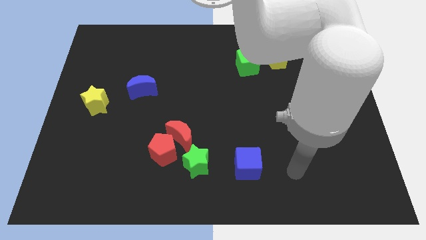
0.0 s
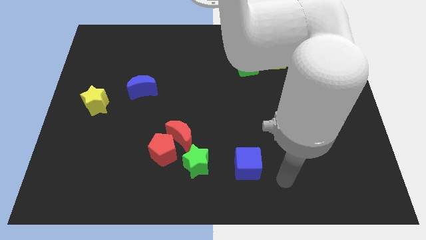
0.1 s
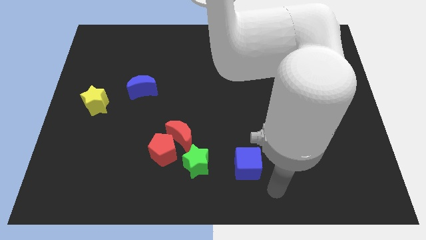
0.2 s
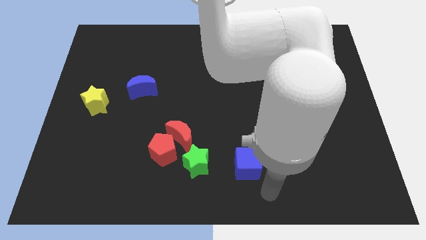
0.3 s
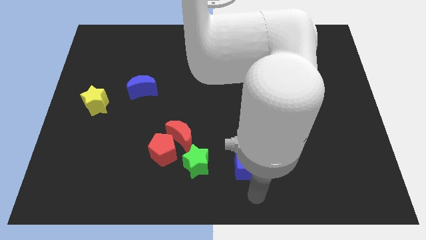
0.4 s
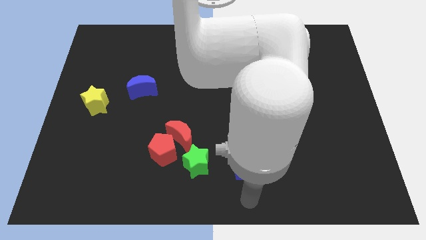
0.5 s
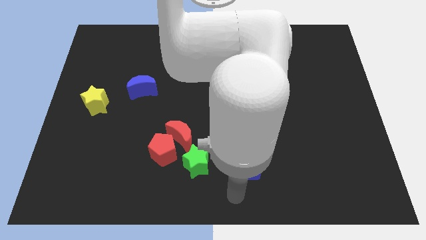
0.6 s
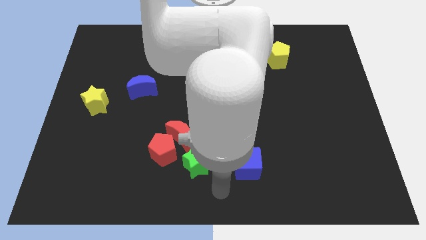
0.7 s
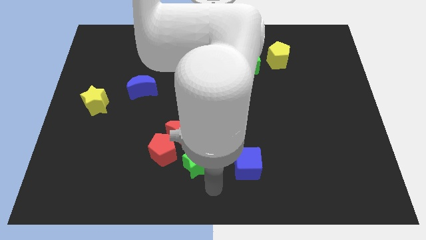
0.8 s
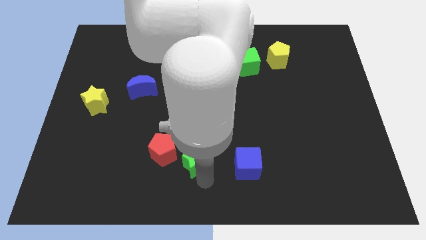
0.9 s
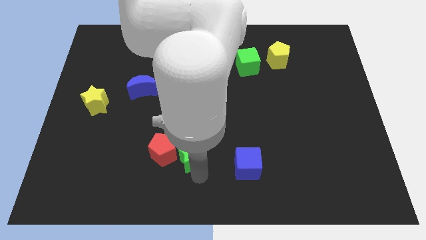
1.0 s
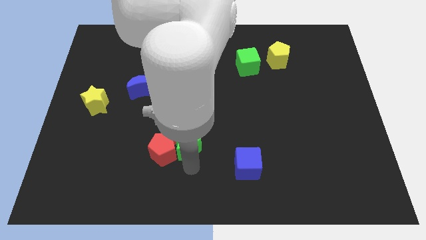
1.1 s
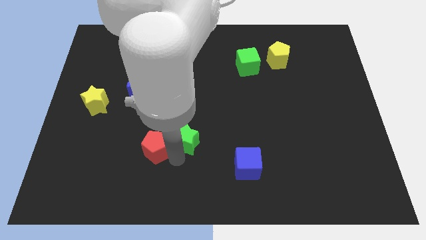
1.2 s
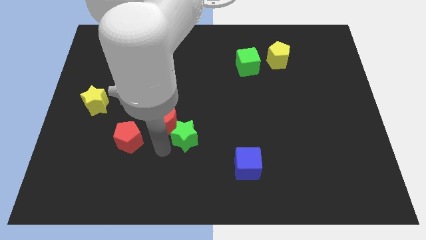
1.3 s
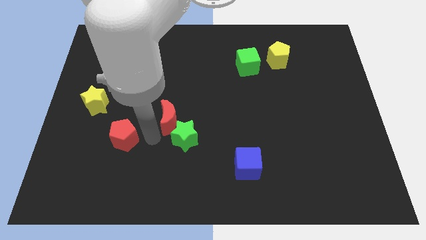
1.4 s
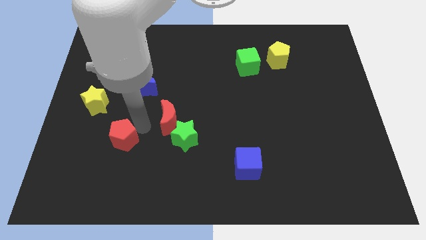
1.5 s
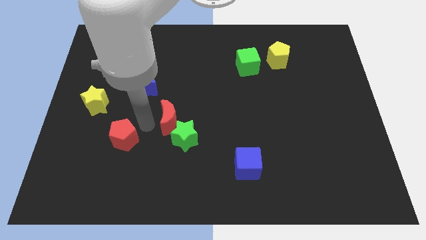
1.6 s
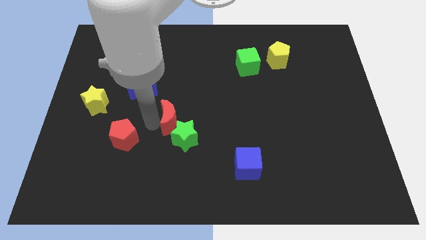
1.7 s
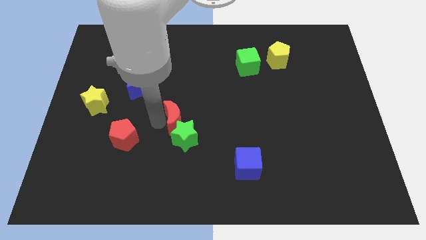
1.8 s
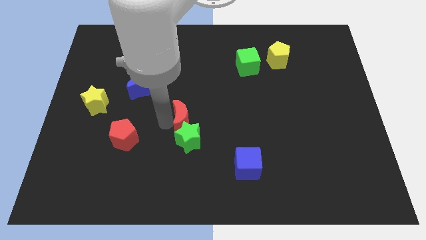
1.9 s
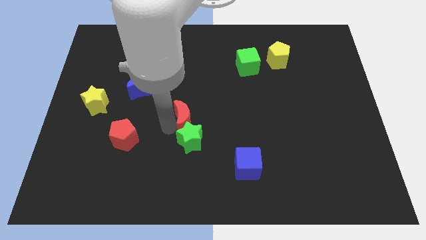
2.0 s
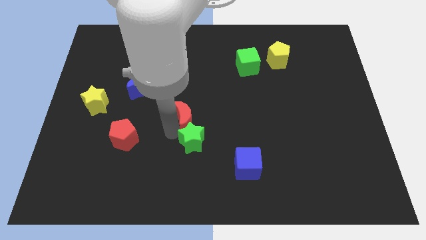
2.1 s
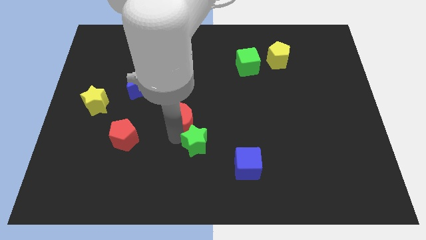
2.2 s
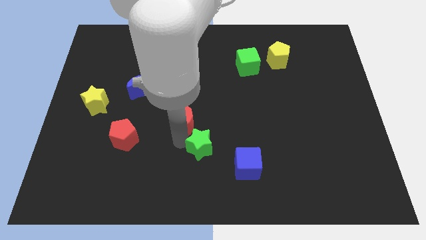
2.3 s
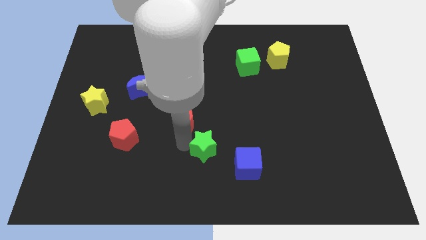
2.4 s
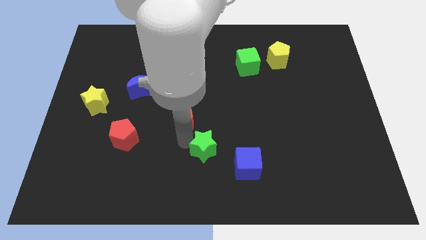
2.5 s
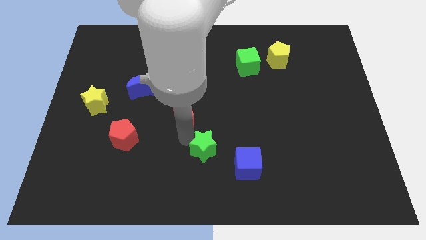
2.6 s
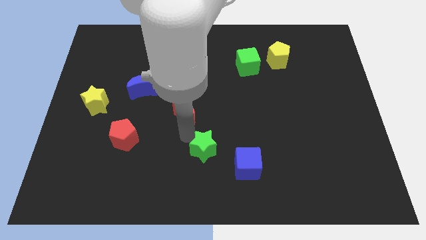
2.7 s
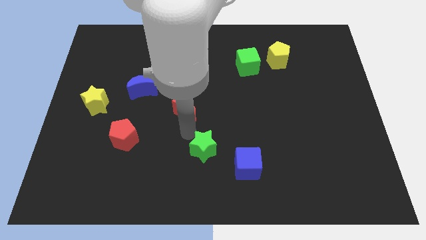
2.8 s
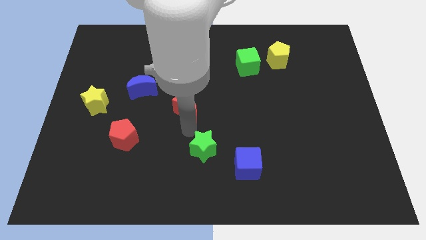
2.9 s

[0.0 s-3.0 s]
push the red moon upwards a little bit

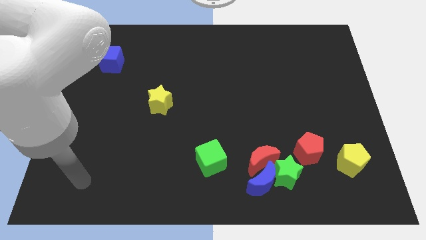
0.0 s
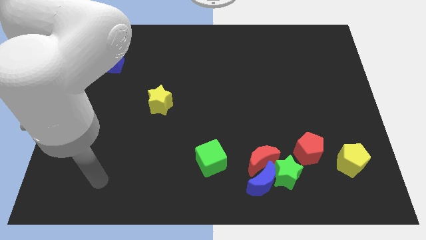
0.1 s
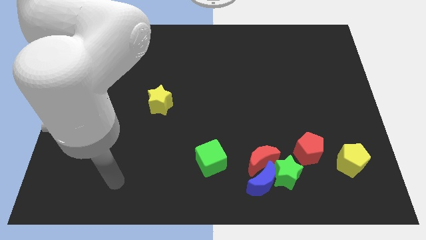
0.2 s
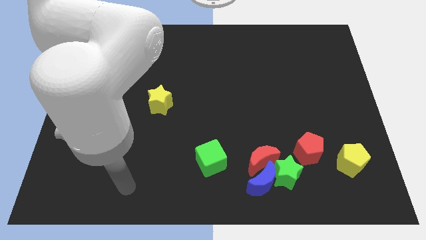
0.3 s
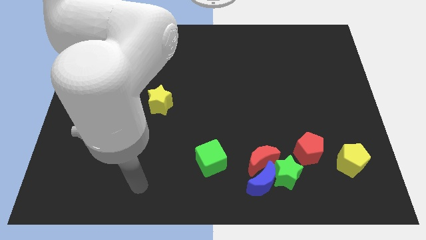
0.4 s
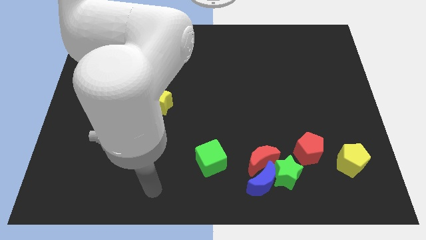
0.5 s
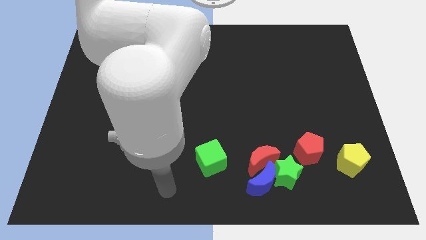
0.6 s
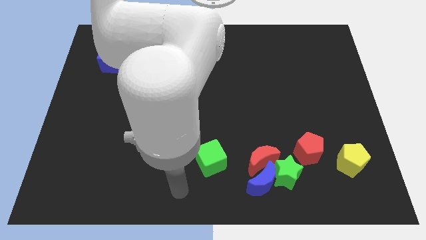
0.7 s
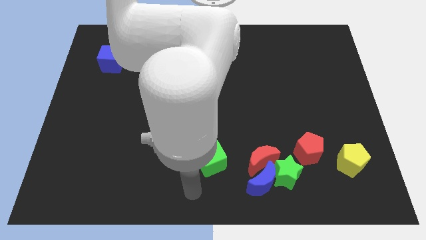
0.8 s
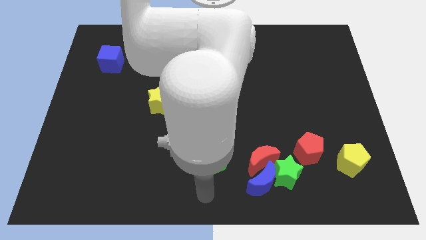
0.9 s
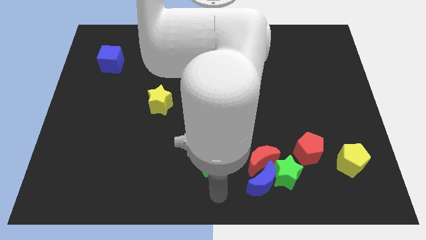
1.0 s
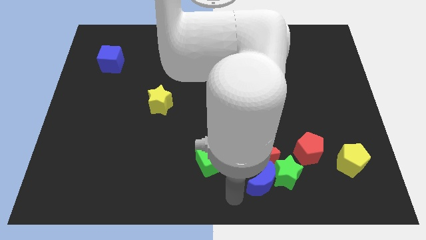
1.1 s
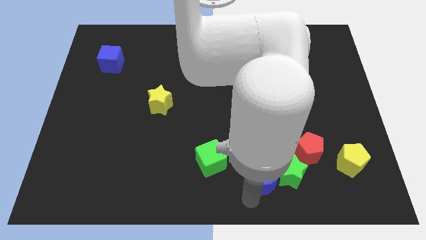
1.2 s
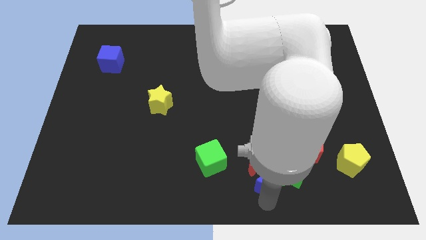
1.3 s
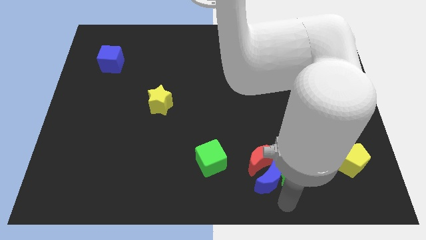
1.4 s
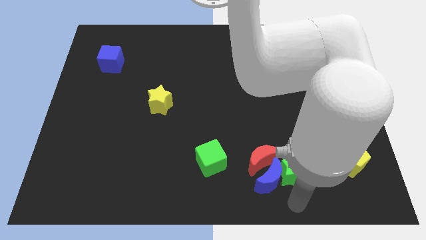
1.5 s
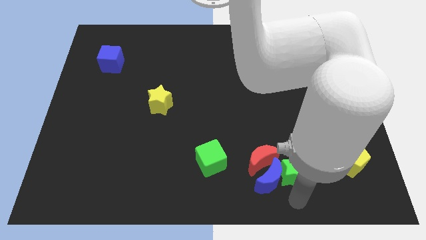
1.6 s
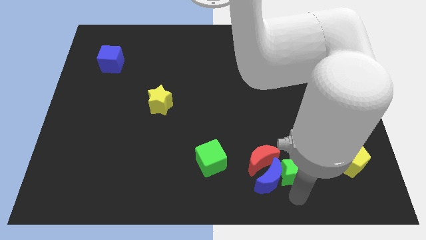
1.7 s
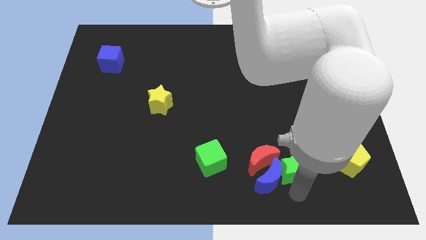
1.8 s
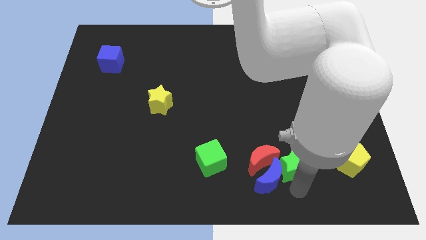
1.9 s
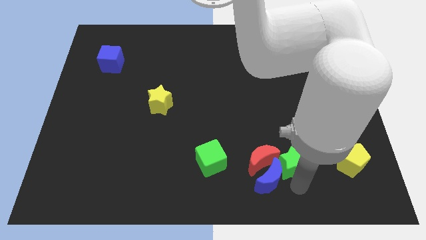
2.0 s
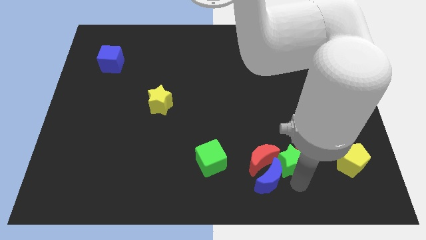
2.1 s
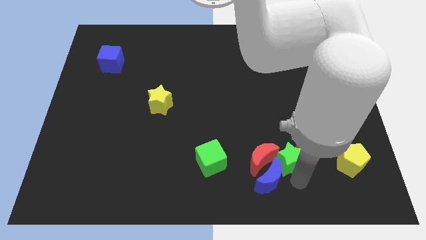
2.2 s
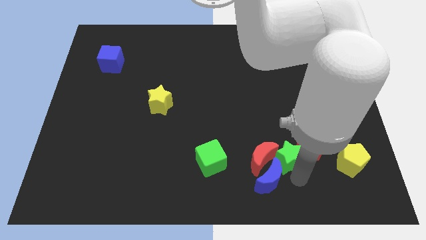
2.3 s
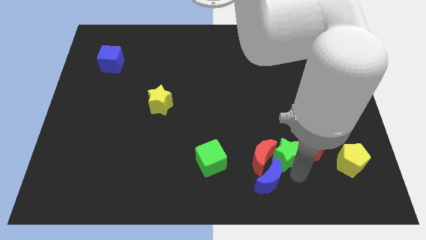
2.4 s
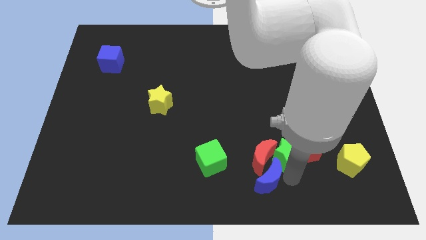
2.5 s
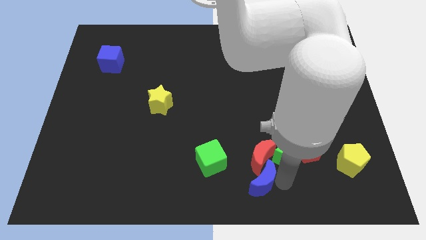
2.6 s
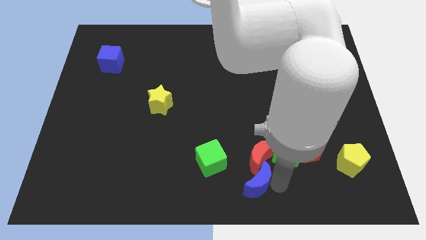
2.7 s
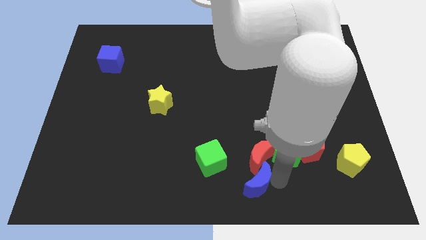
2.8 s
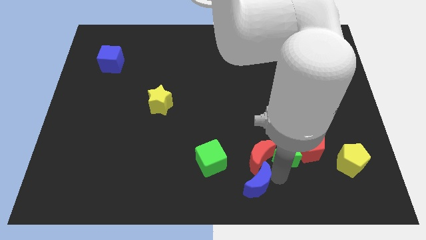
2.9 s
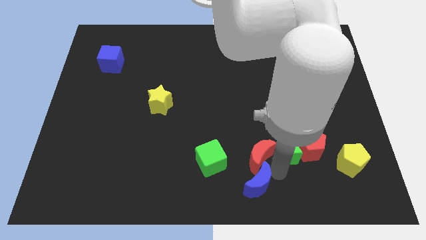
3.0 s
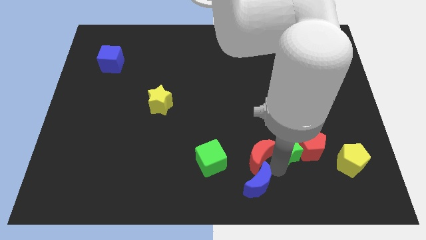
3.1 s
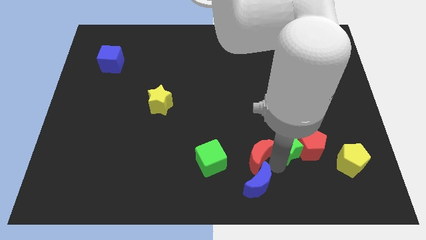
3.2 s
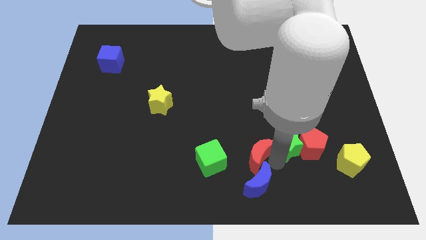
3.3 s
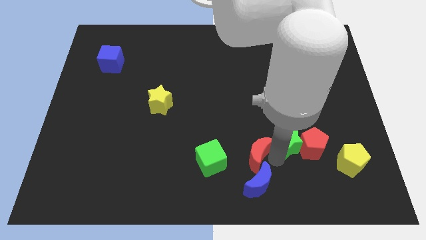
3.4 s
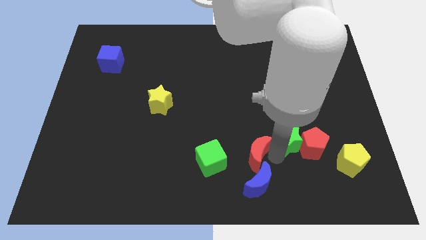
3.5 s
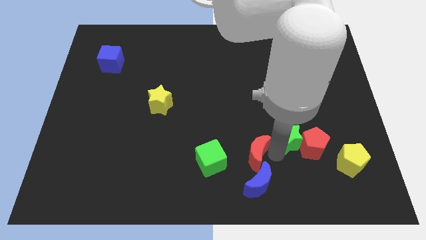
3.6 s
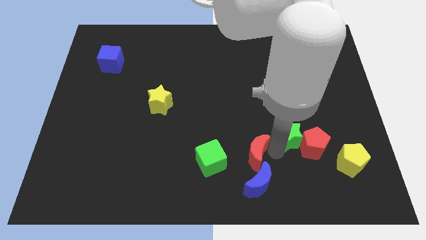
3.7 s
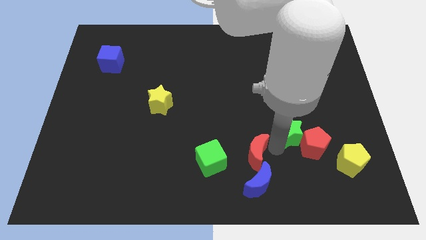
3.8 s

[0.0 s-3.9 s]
slightly push the green star upwards and then right

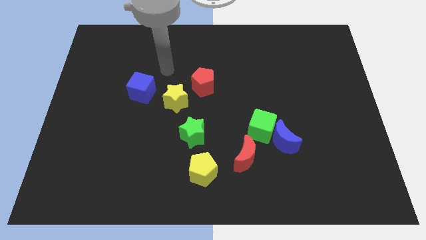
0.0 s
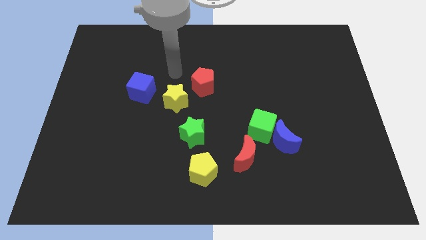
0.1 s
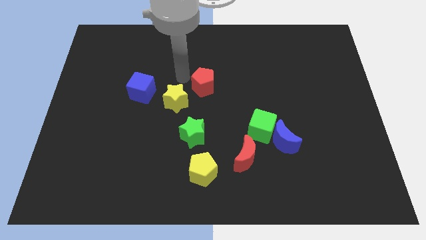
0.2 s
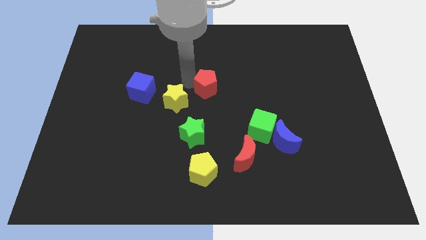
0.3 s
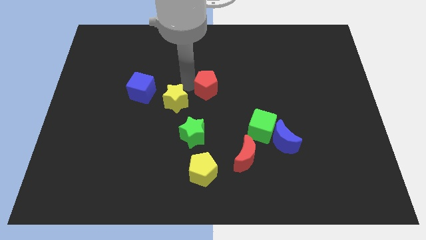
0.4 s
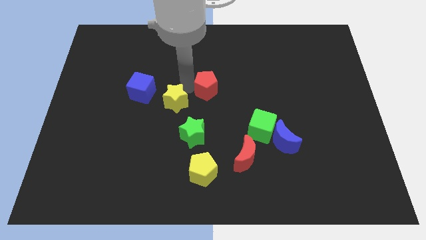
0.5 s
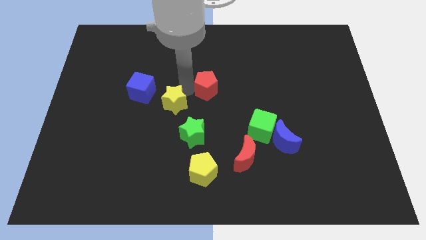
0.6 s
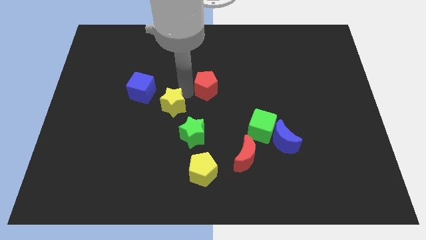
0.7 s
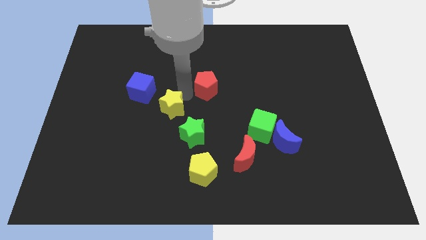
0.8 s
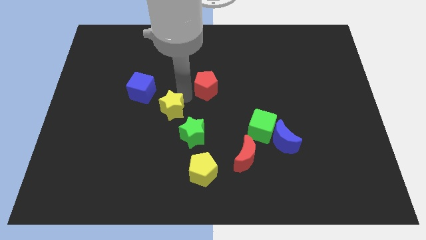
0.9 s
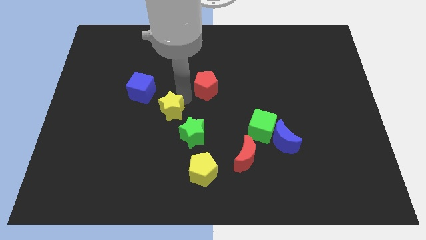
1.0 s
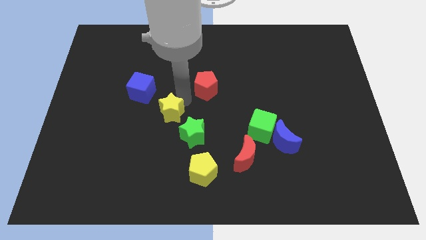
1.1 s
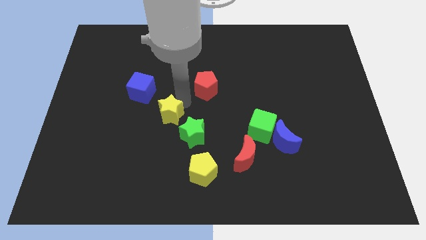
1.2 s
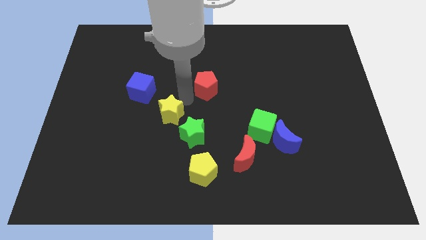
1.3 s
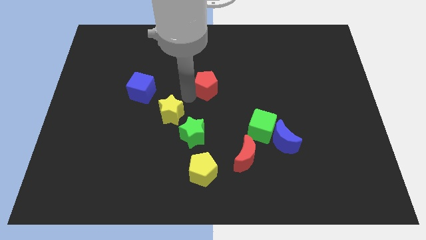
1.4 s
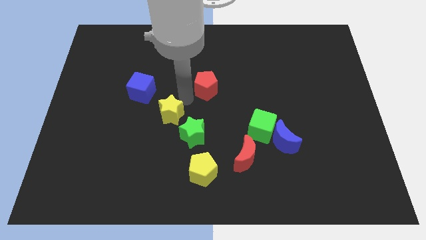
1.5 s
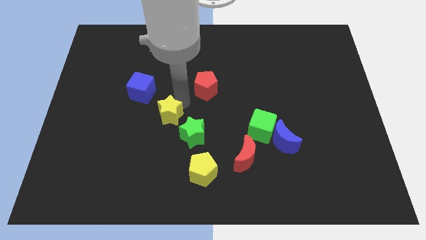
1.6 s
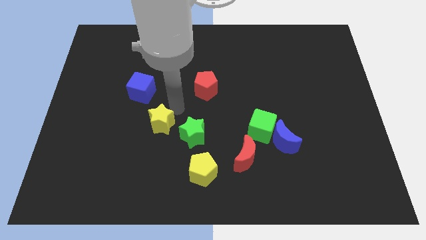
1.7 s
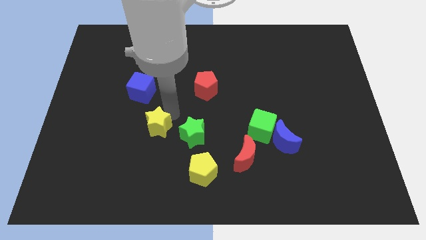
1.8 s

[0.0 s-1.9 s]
push the yellow star down and left a bit
